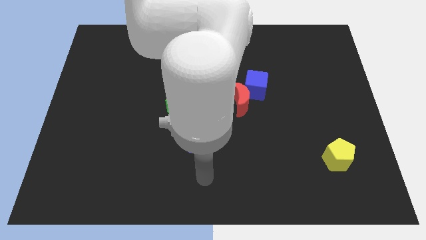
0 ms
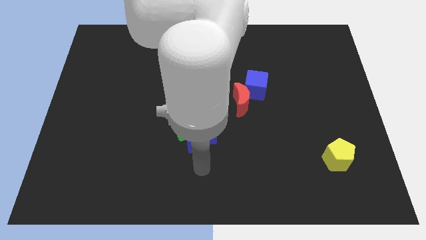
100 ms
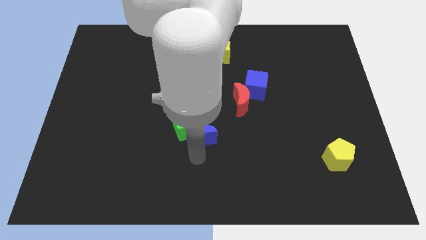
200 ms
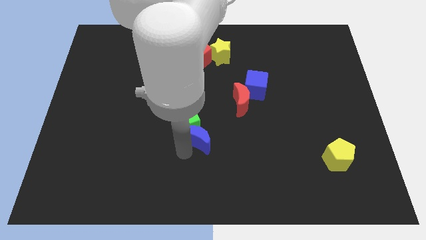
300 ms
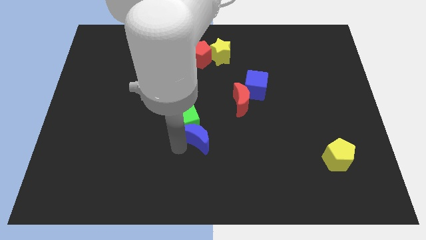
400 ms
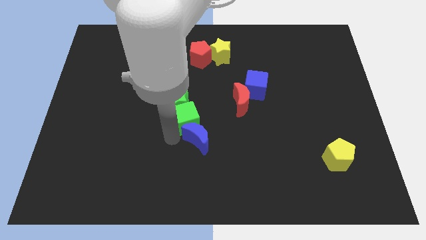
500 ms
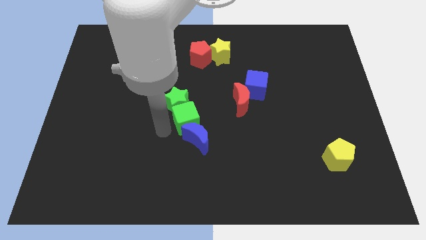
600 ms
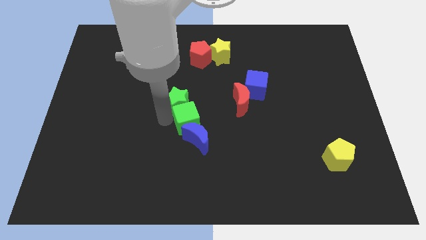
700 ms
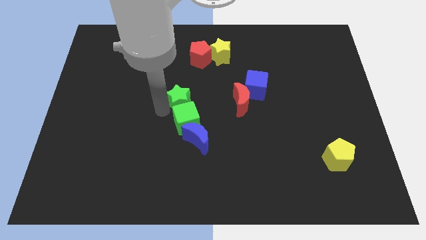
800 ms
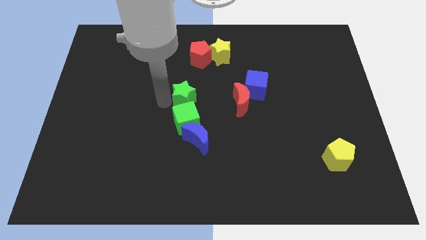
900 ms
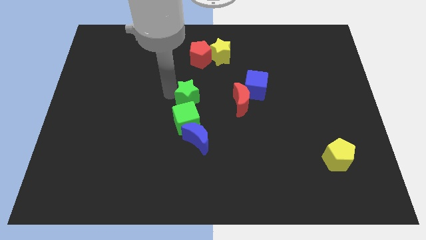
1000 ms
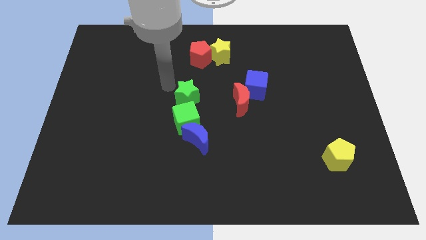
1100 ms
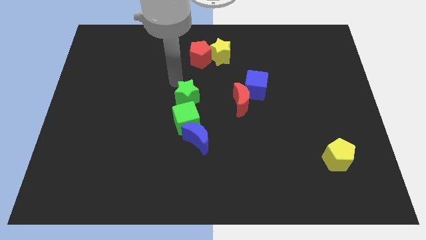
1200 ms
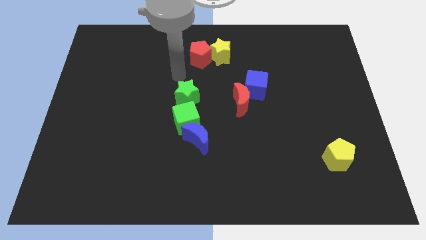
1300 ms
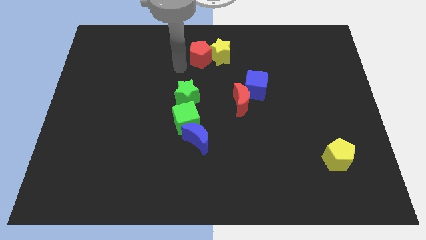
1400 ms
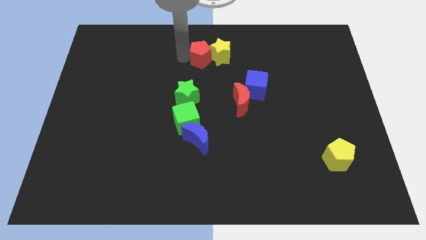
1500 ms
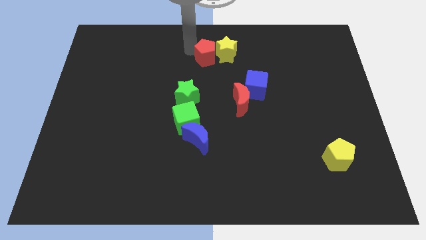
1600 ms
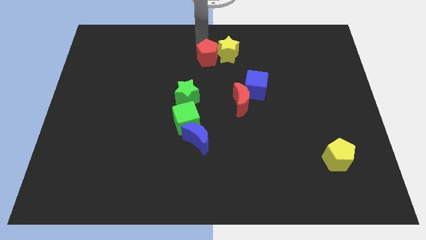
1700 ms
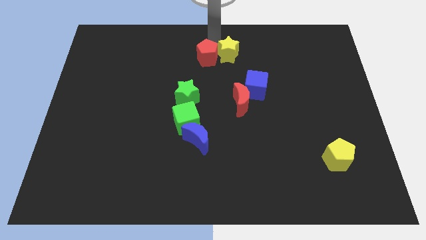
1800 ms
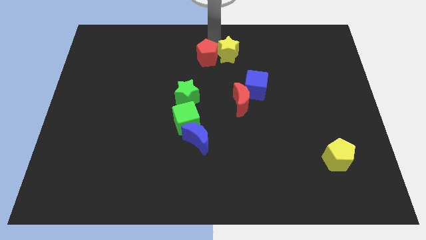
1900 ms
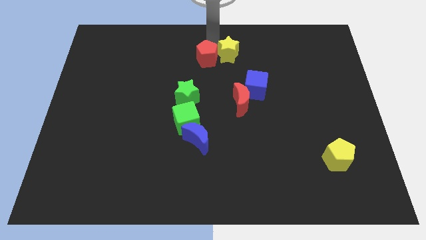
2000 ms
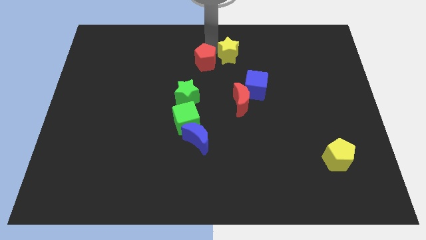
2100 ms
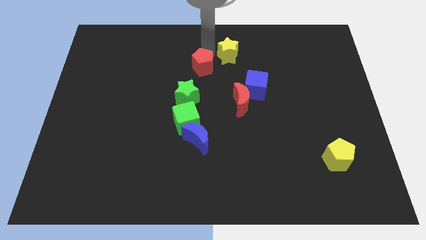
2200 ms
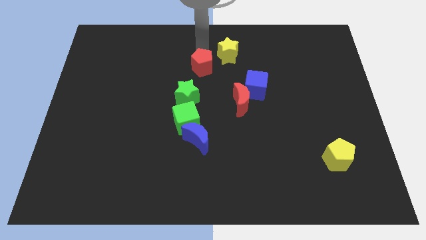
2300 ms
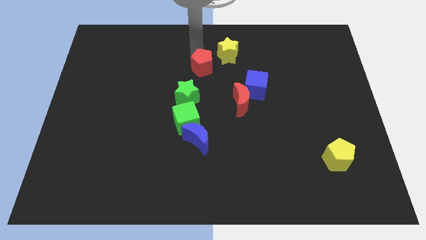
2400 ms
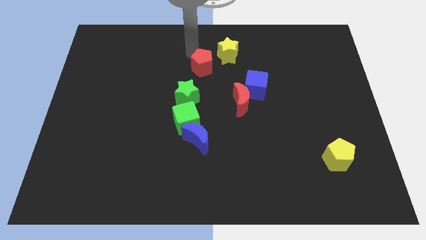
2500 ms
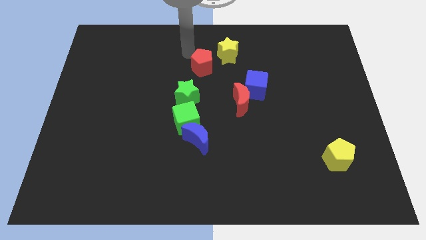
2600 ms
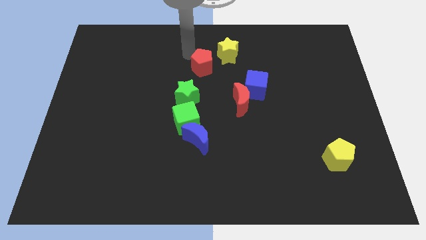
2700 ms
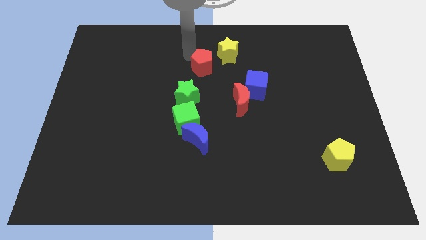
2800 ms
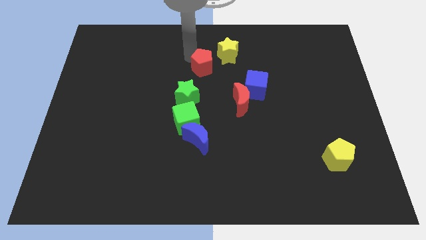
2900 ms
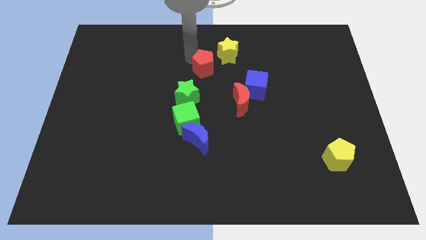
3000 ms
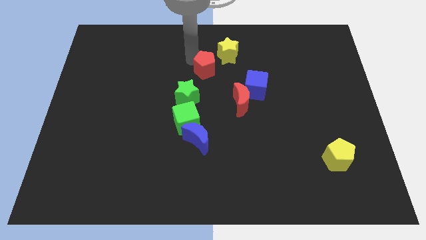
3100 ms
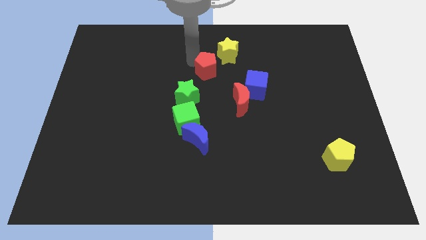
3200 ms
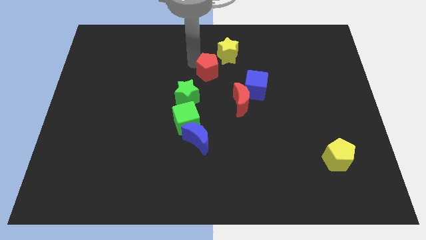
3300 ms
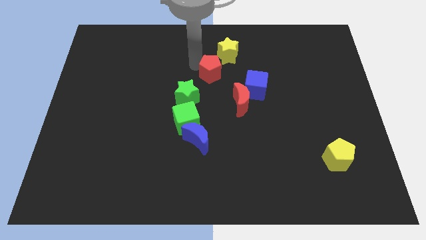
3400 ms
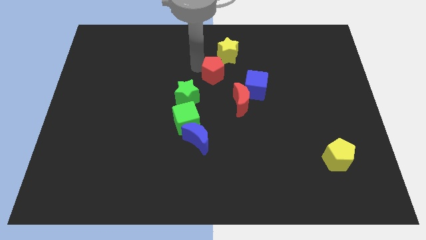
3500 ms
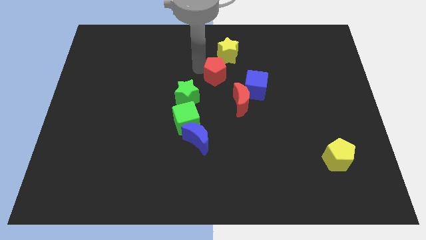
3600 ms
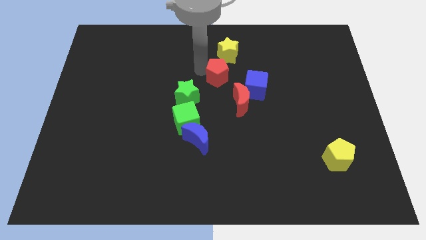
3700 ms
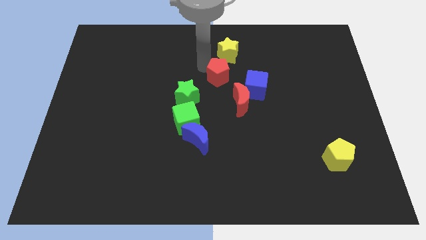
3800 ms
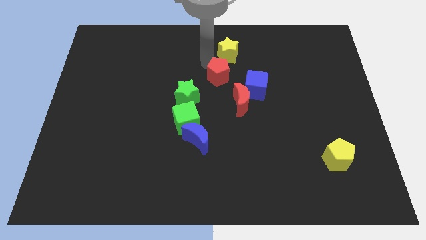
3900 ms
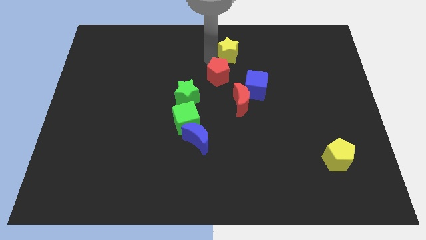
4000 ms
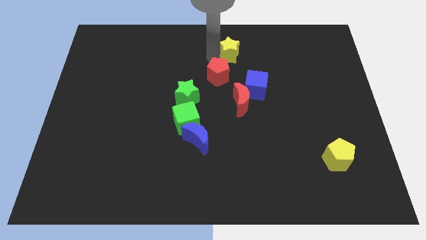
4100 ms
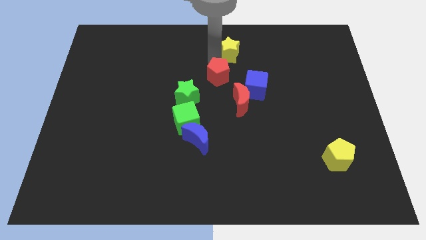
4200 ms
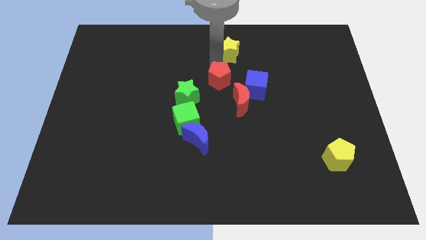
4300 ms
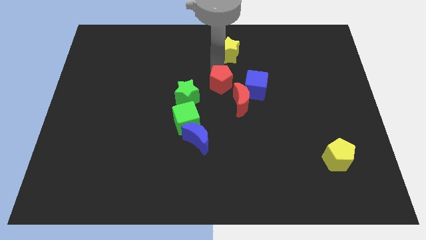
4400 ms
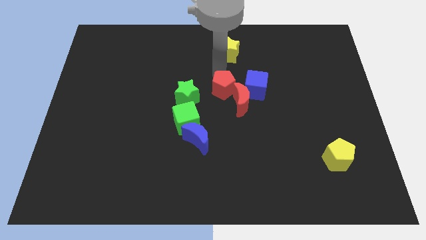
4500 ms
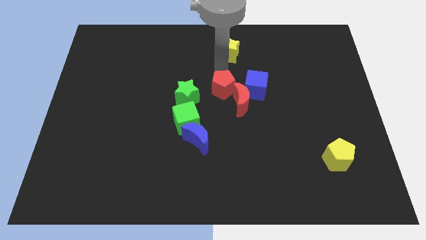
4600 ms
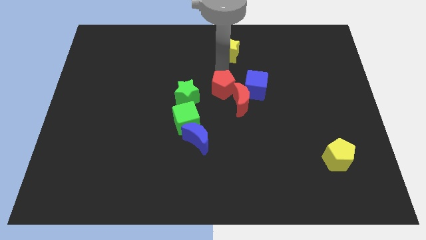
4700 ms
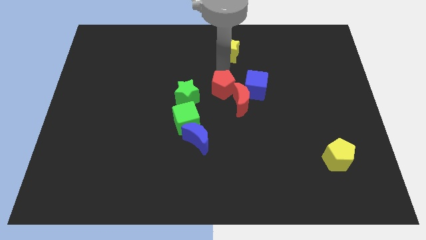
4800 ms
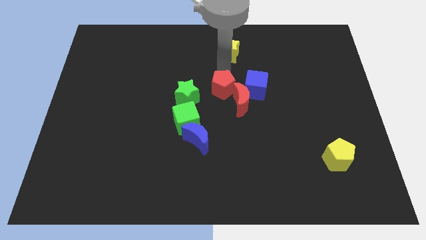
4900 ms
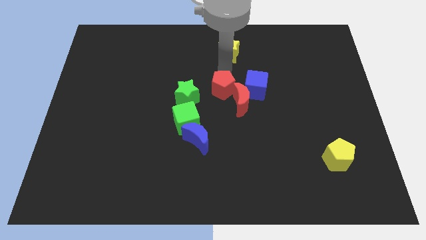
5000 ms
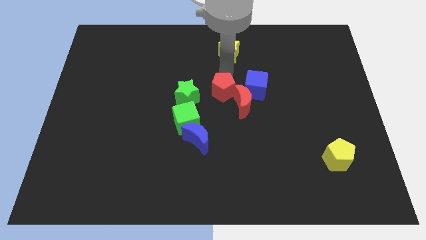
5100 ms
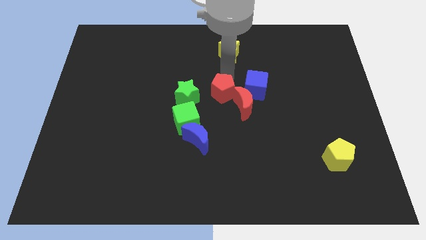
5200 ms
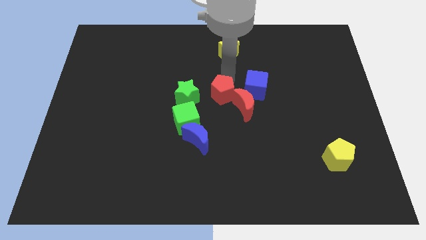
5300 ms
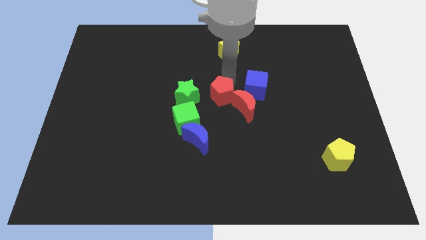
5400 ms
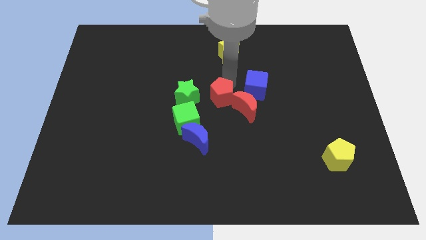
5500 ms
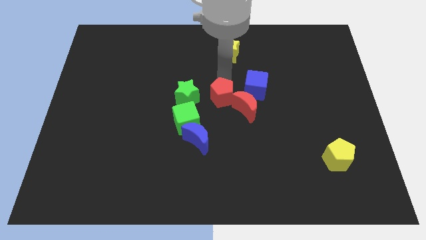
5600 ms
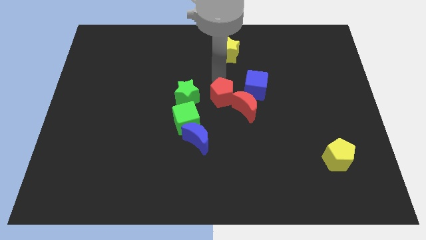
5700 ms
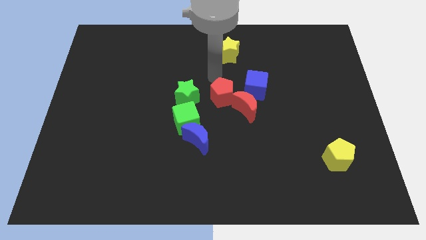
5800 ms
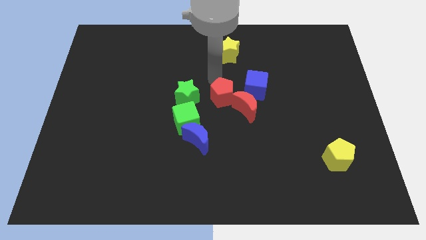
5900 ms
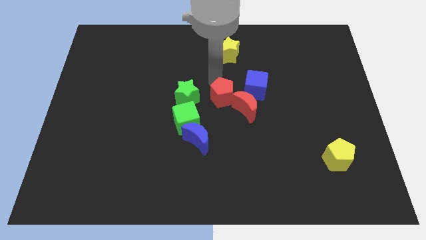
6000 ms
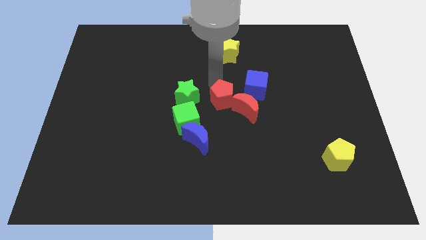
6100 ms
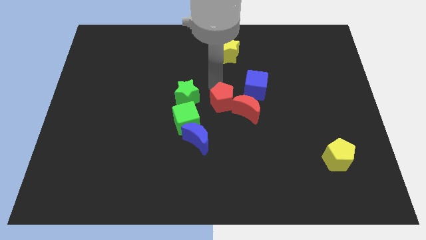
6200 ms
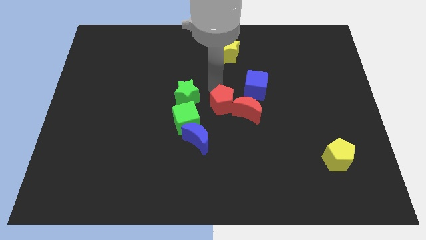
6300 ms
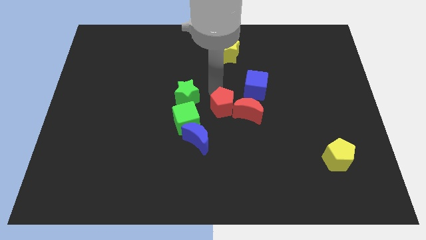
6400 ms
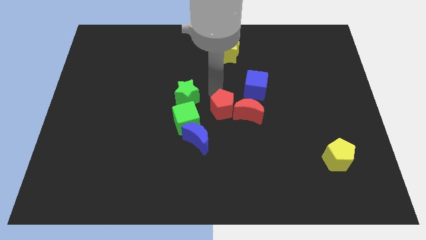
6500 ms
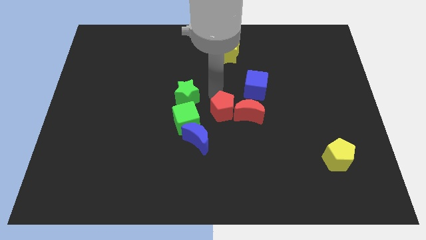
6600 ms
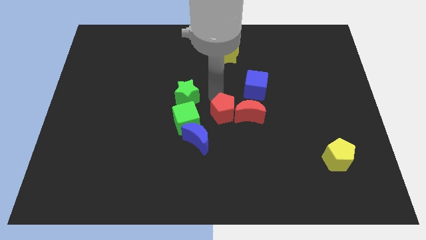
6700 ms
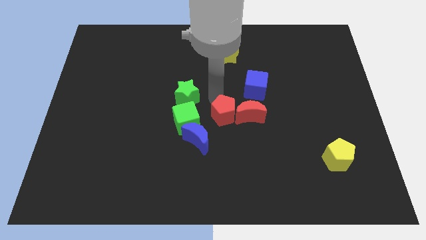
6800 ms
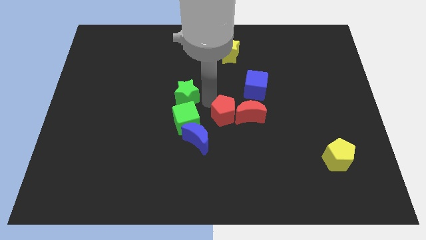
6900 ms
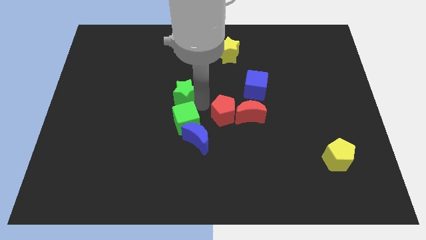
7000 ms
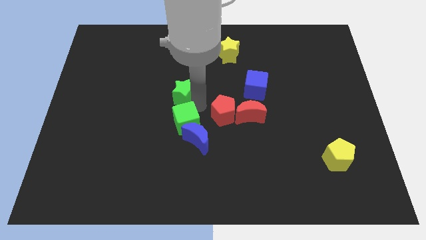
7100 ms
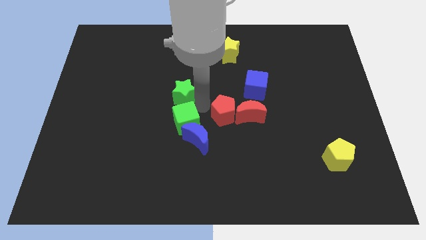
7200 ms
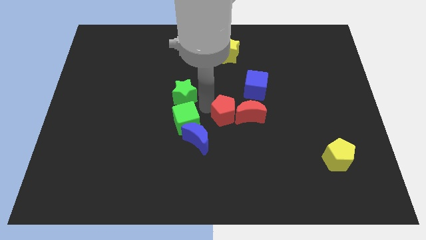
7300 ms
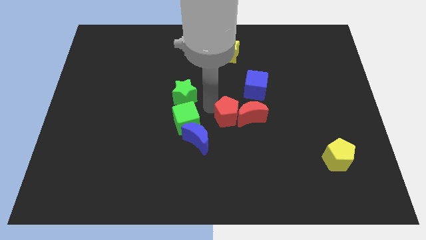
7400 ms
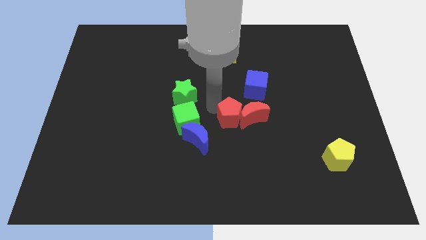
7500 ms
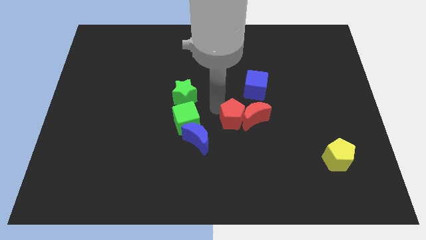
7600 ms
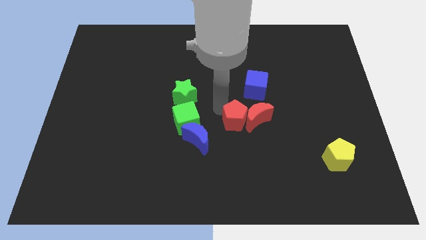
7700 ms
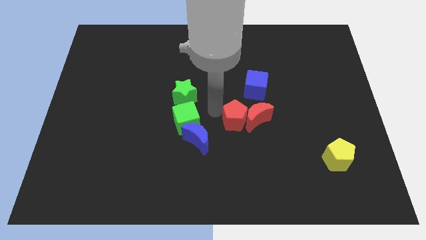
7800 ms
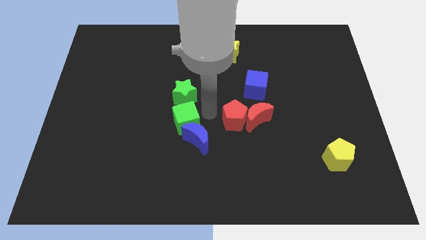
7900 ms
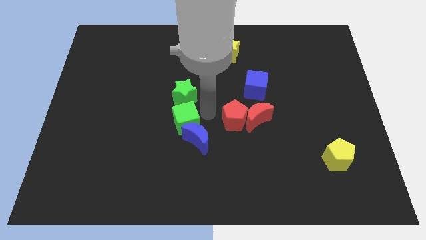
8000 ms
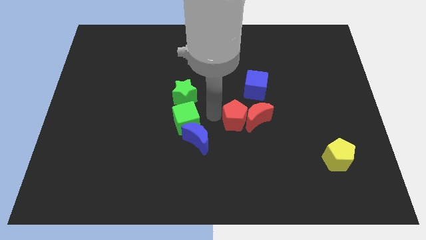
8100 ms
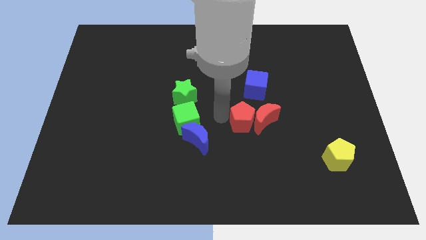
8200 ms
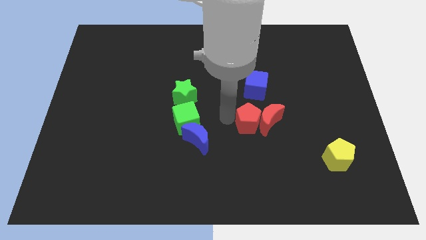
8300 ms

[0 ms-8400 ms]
push the red pentagon downwards and then right
